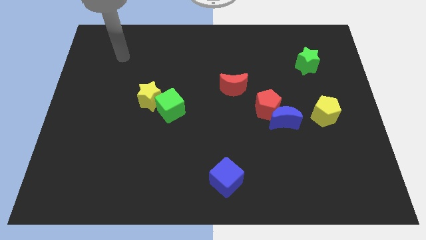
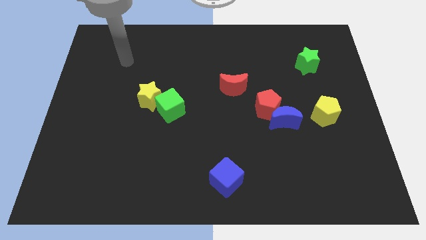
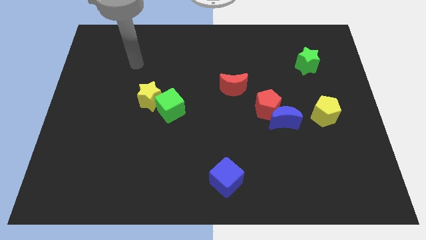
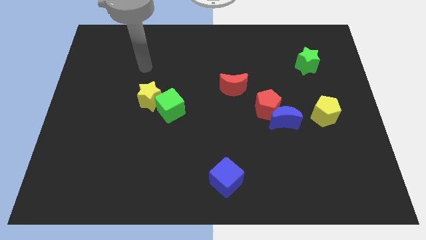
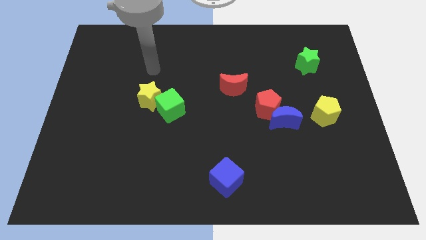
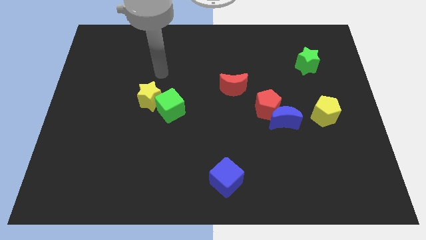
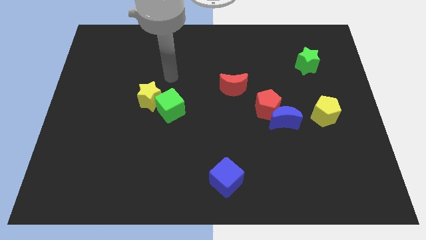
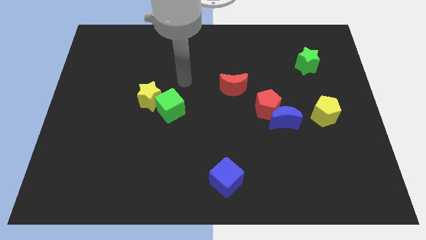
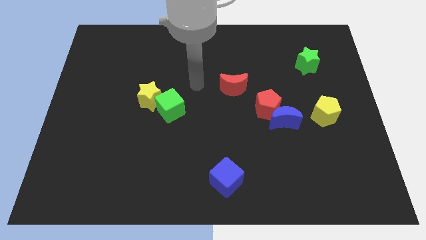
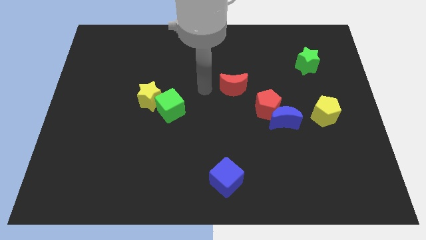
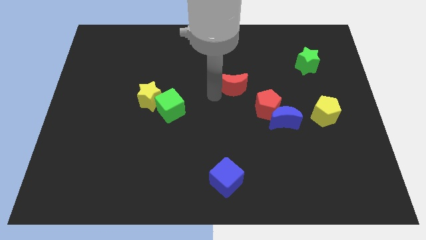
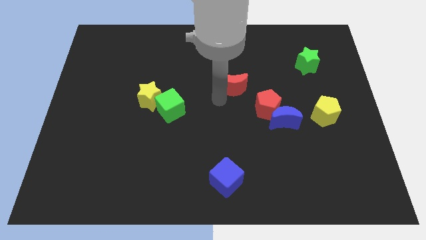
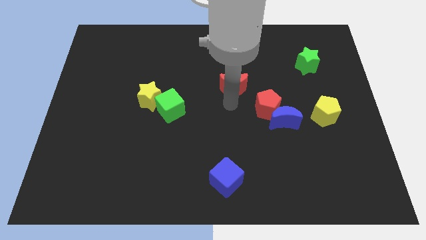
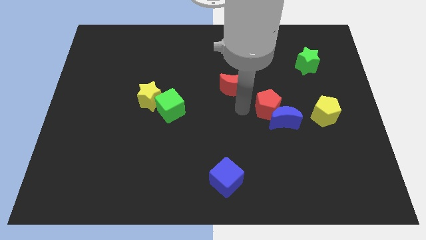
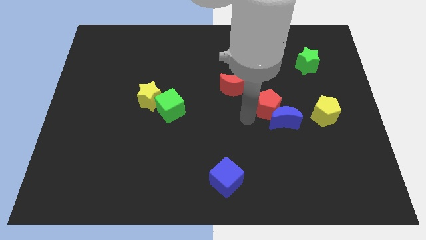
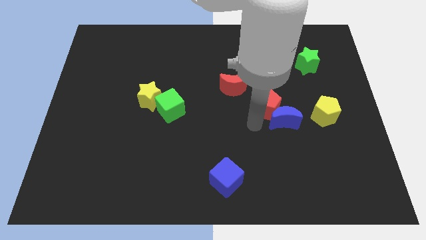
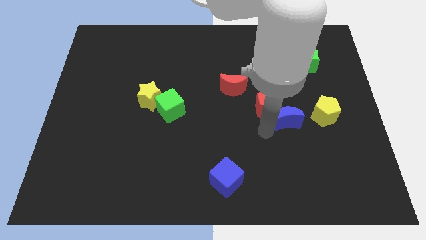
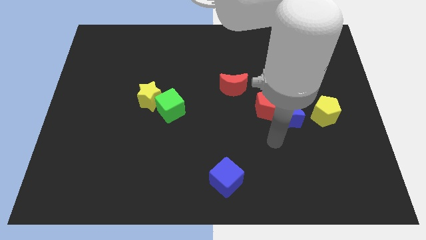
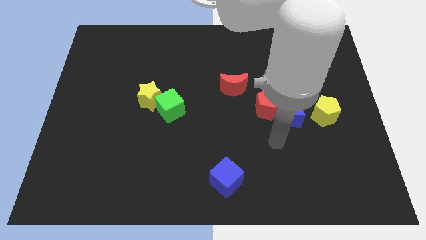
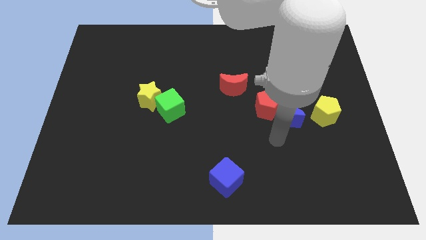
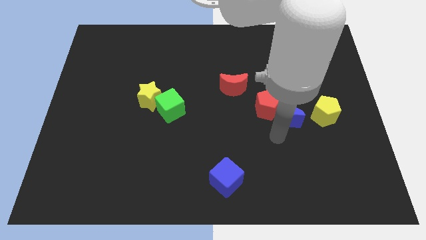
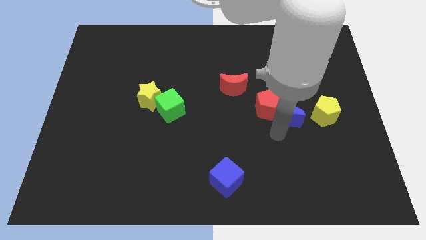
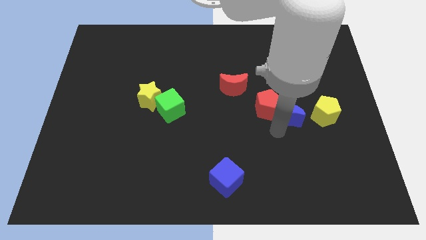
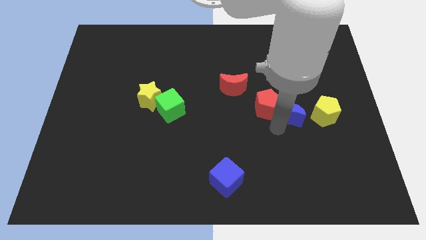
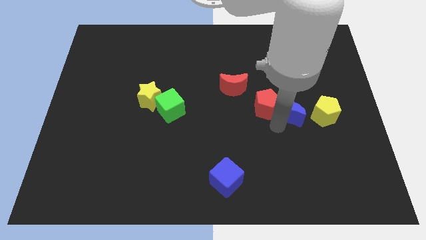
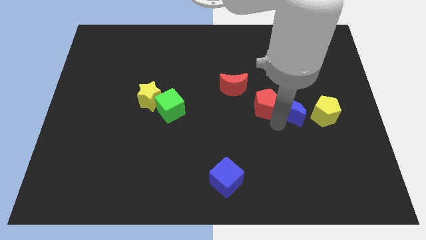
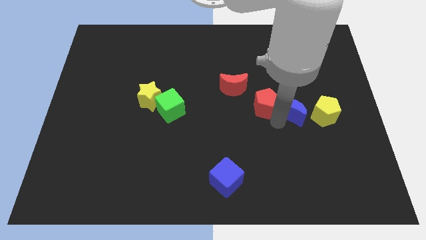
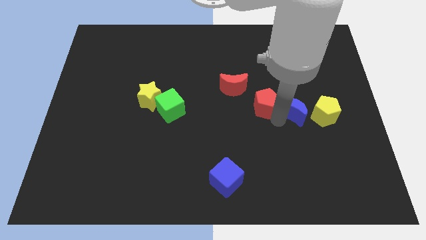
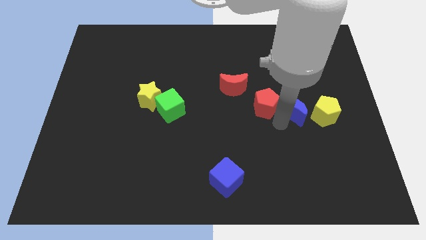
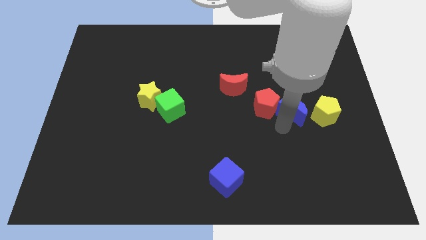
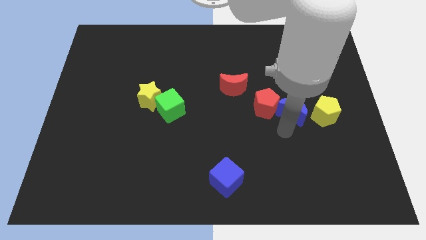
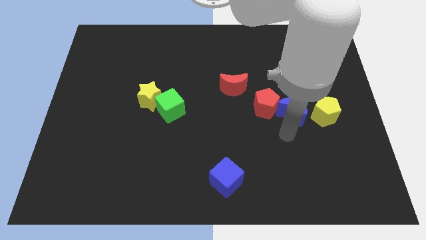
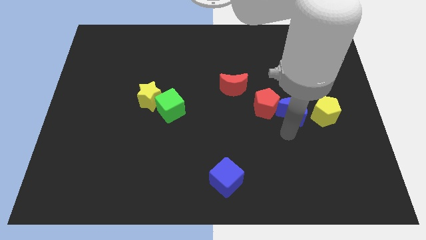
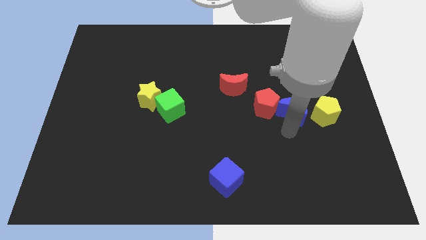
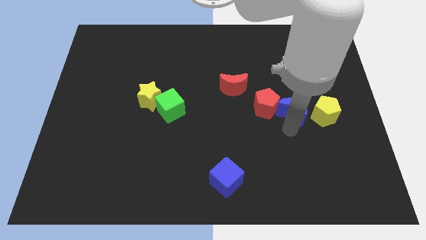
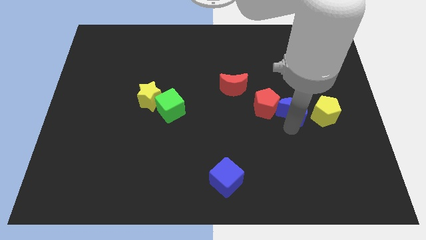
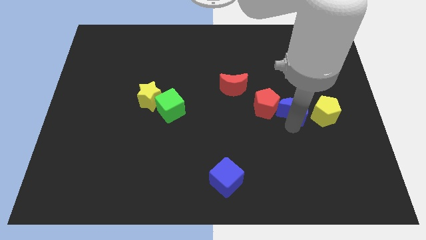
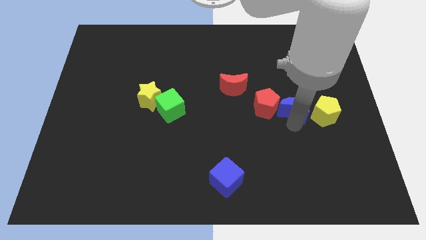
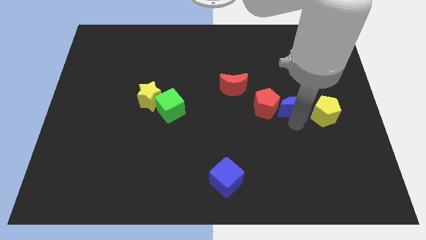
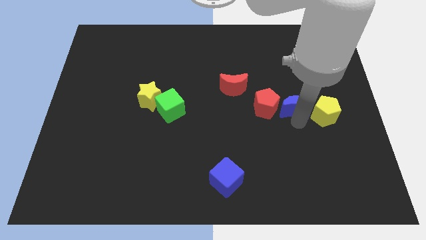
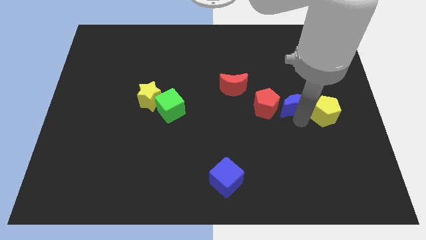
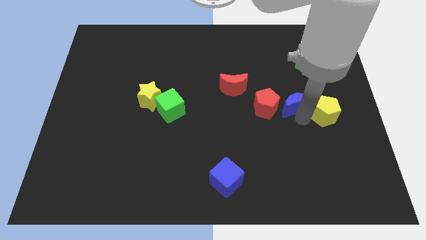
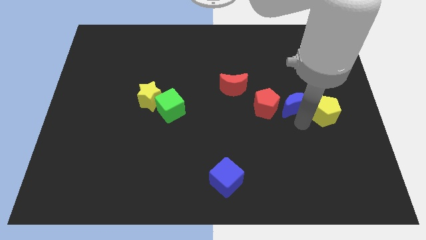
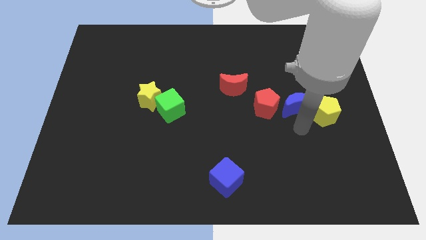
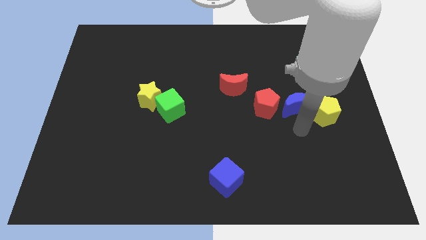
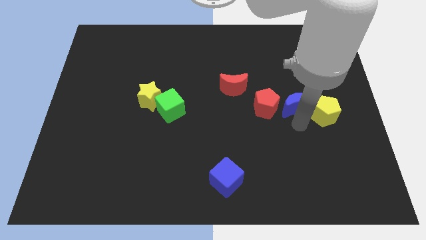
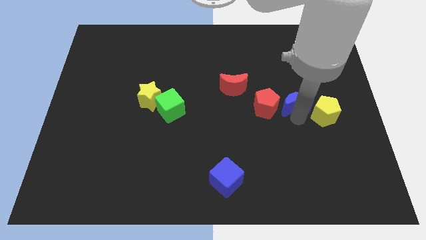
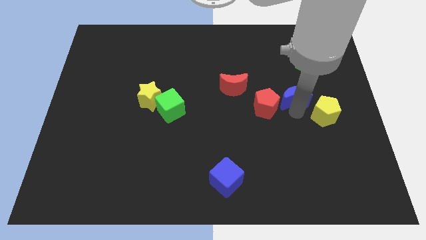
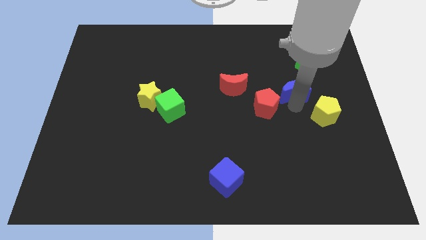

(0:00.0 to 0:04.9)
move the blue moon upwards somewhat

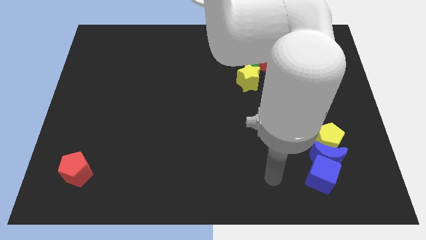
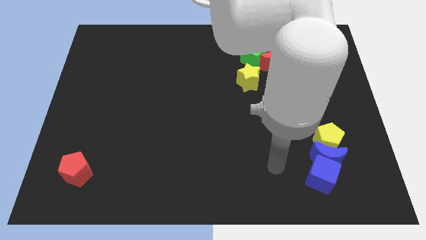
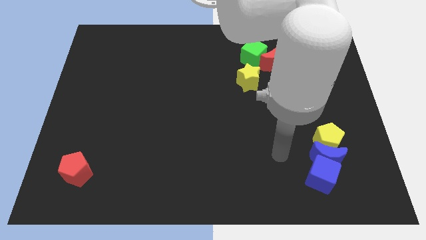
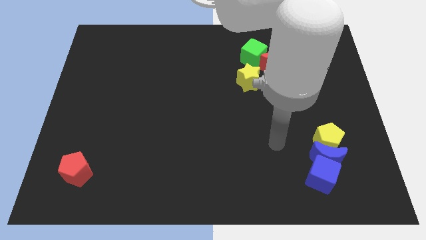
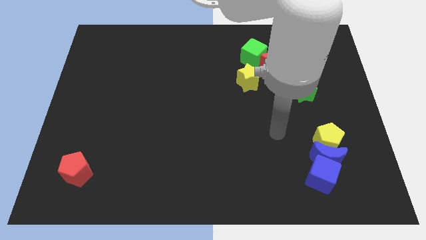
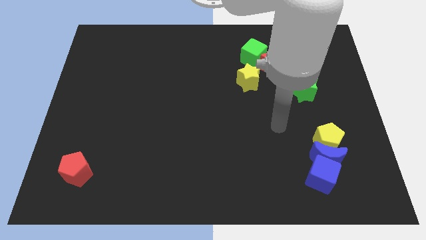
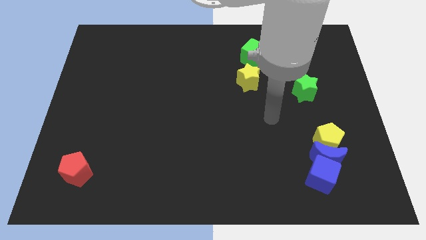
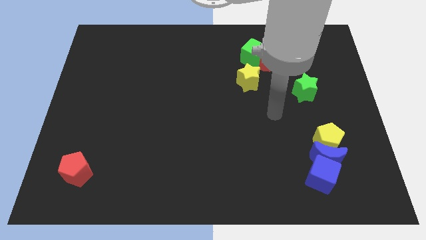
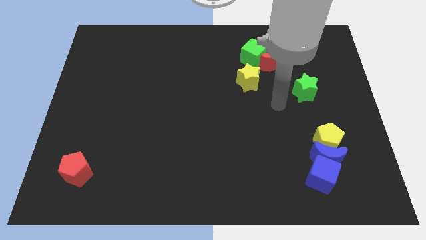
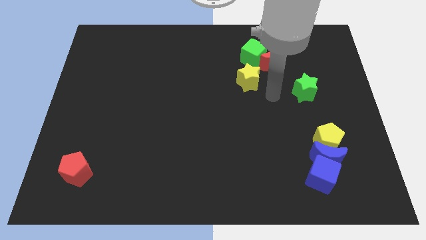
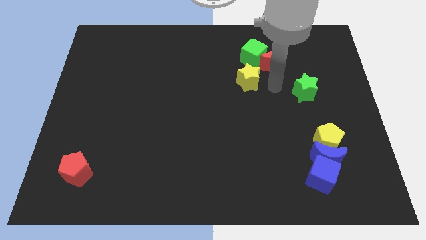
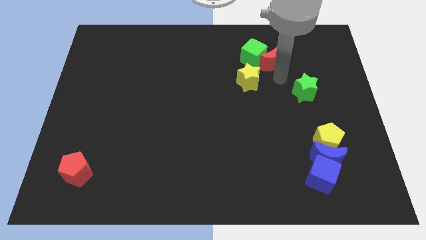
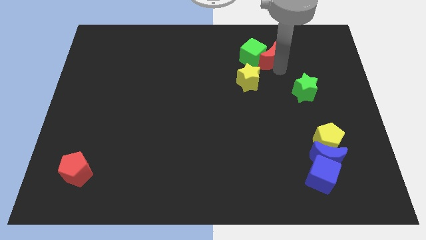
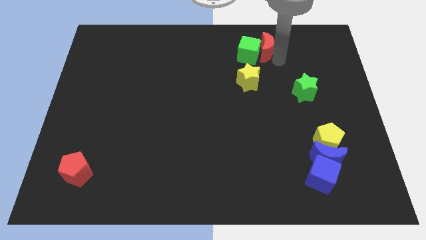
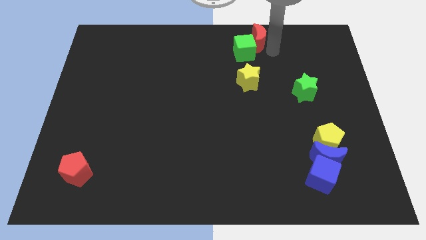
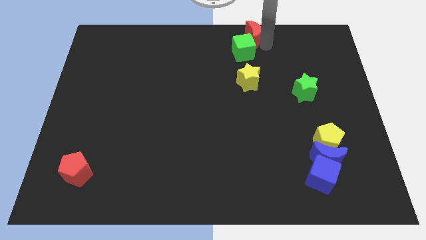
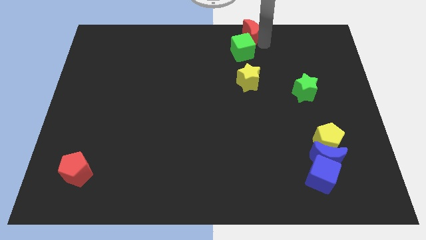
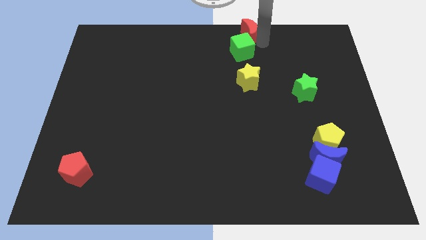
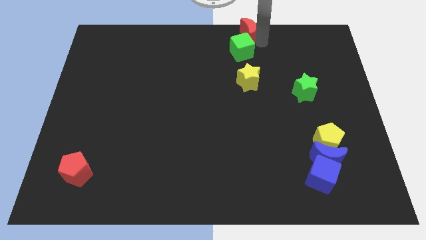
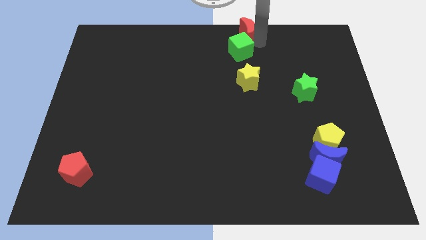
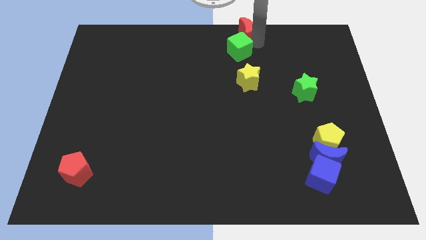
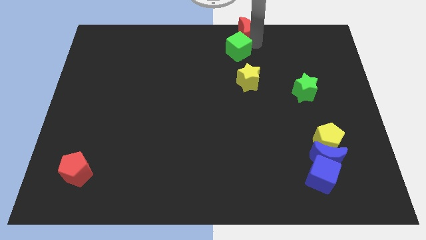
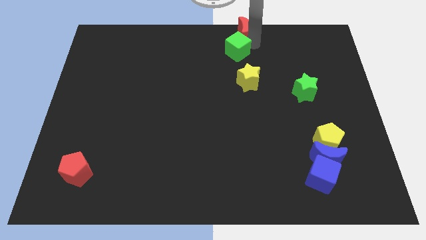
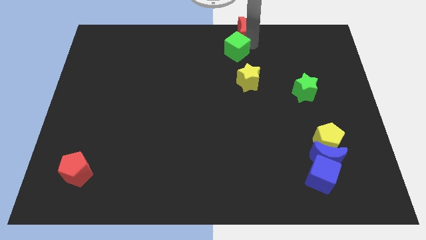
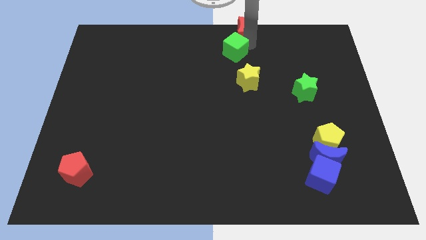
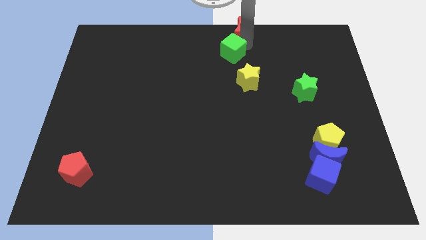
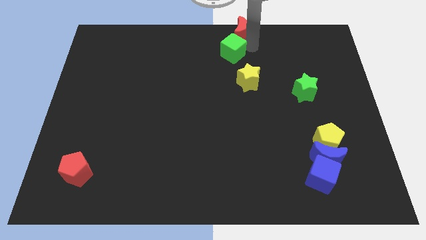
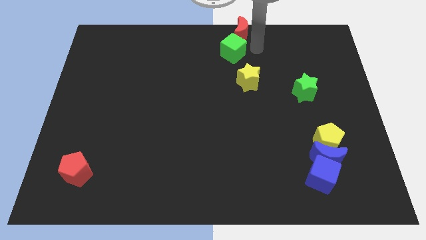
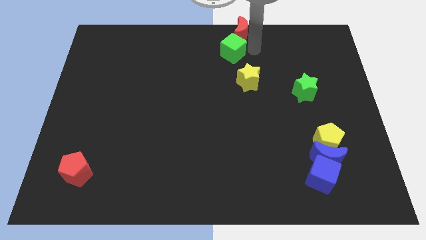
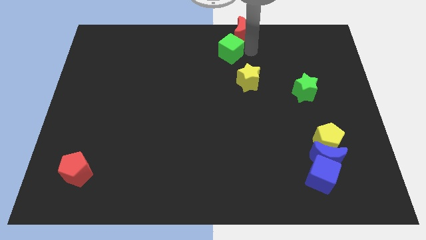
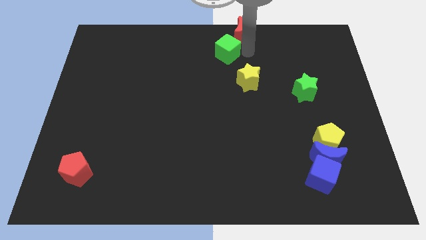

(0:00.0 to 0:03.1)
slightly push the green cube to the left

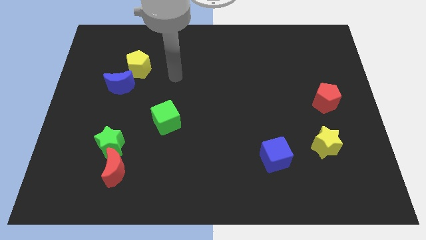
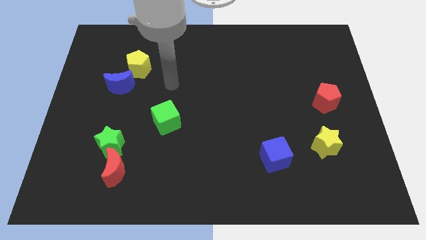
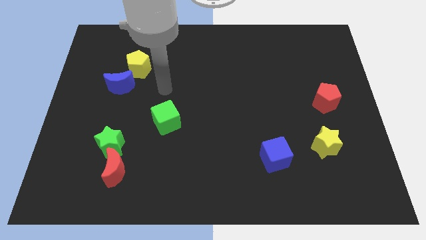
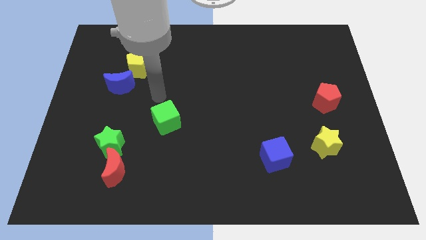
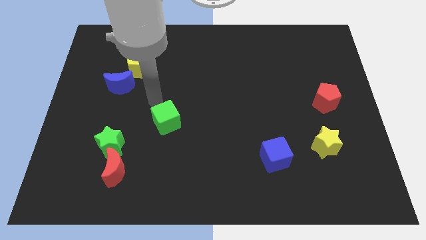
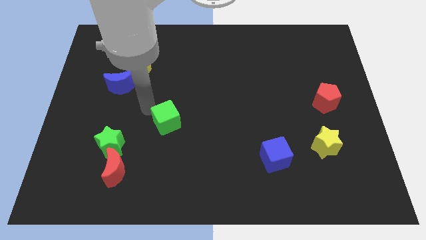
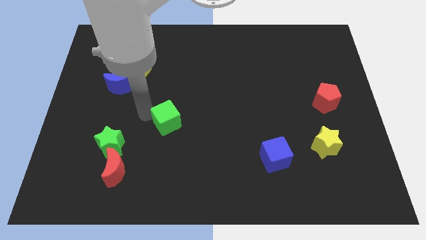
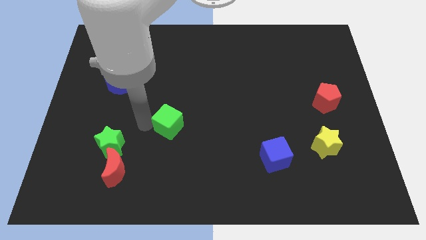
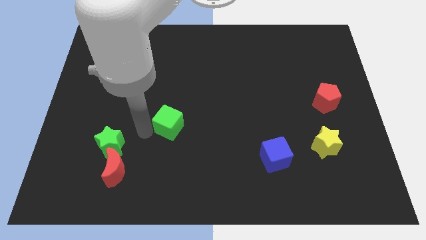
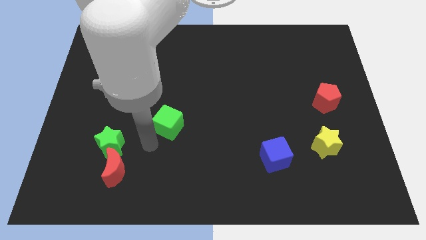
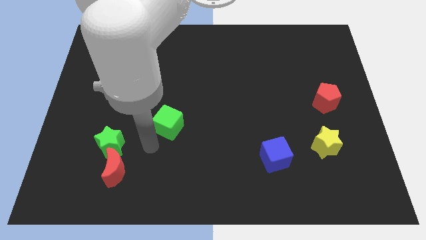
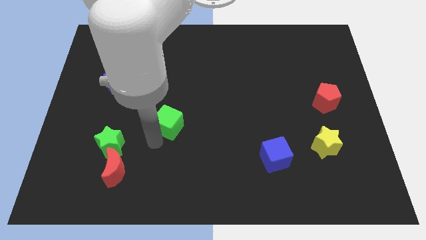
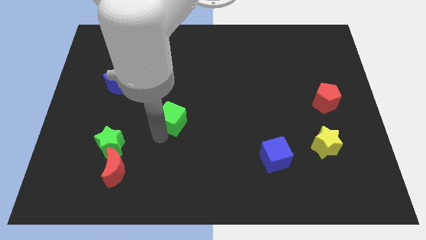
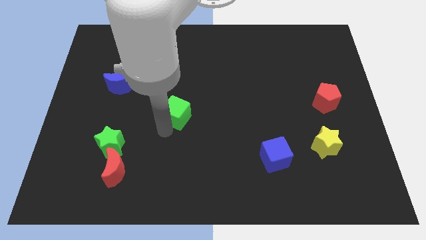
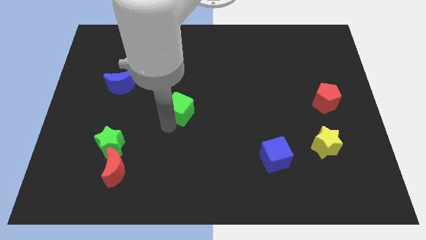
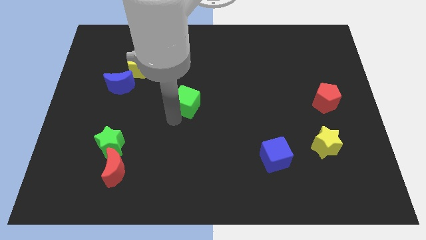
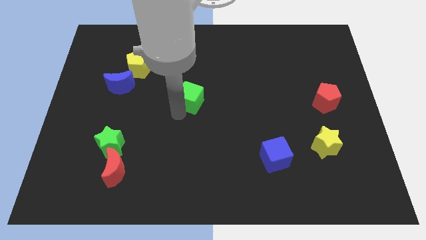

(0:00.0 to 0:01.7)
slightly push the green cube upwards and right
